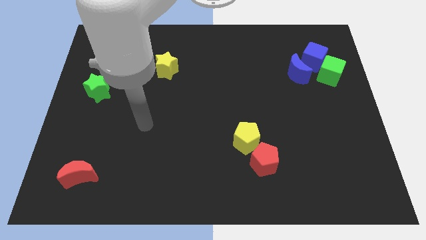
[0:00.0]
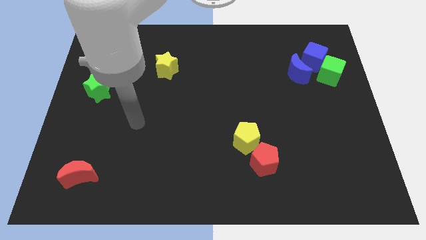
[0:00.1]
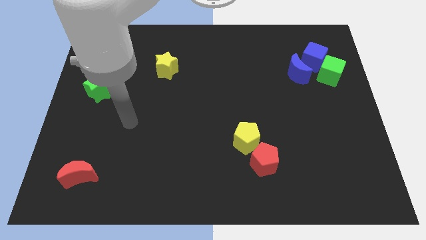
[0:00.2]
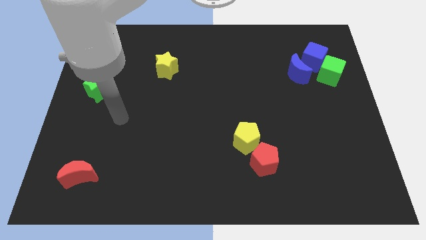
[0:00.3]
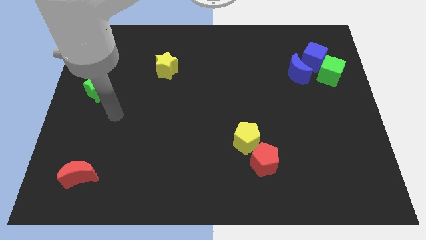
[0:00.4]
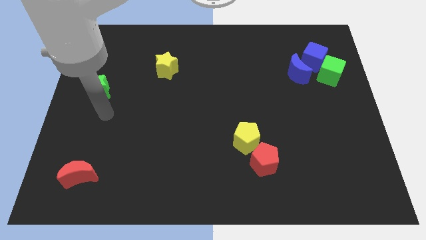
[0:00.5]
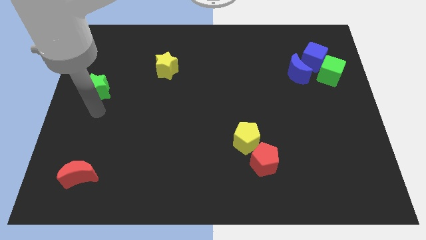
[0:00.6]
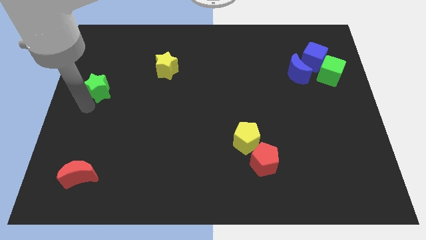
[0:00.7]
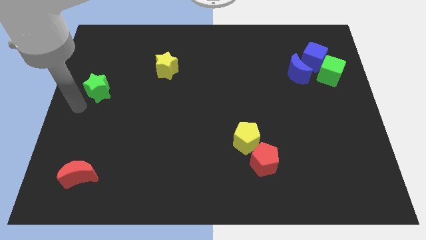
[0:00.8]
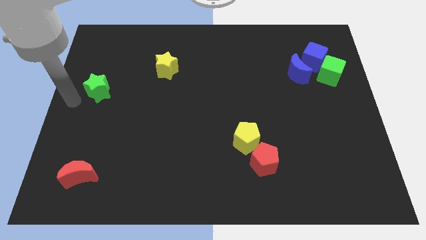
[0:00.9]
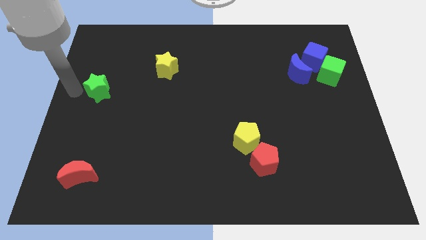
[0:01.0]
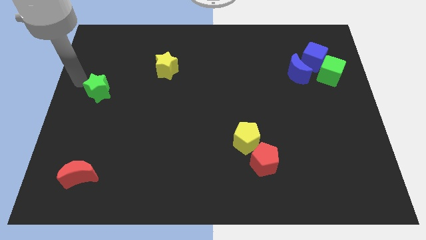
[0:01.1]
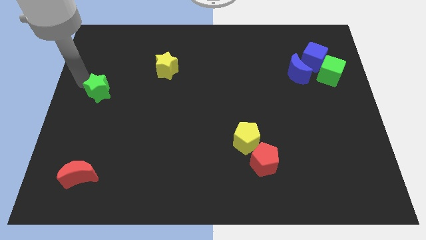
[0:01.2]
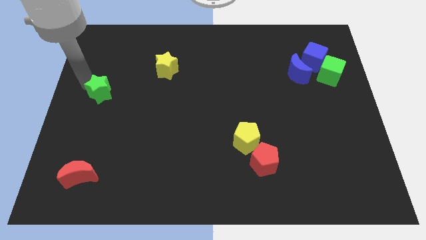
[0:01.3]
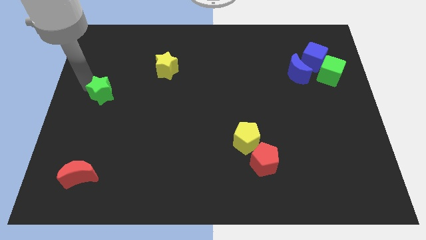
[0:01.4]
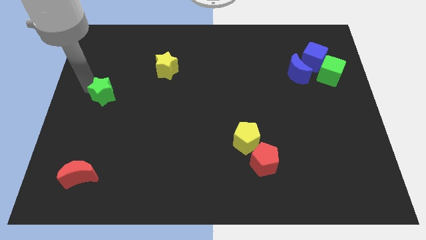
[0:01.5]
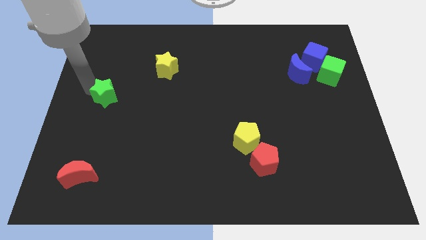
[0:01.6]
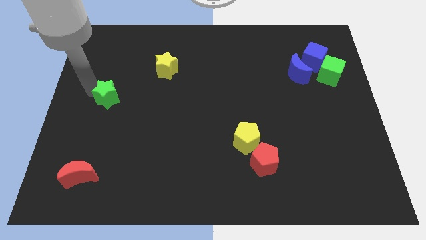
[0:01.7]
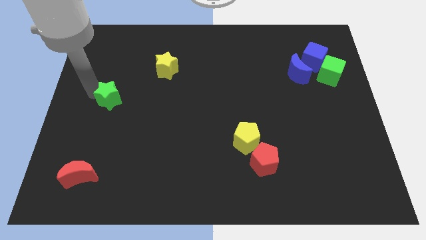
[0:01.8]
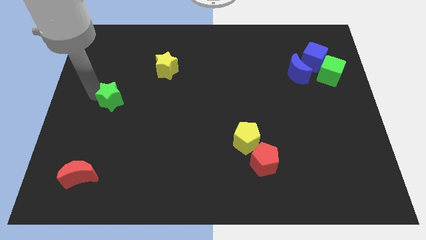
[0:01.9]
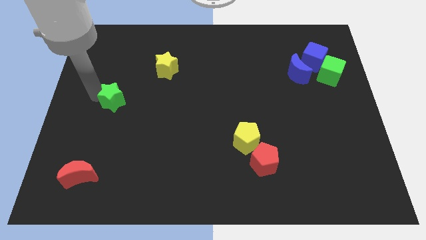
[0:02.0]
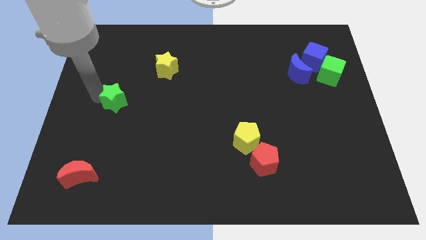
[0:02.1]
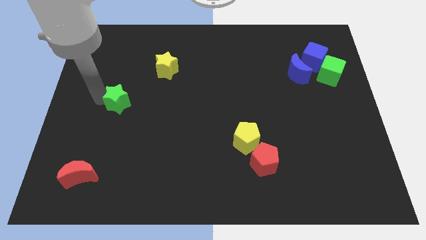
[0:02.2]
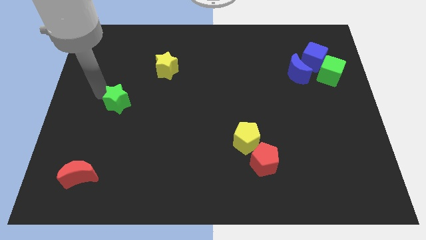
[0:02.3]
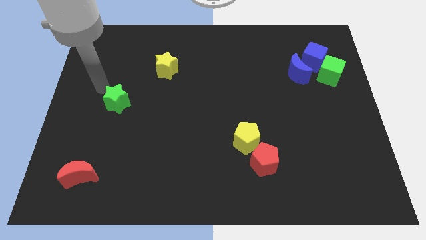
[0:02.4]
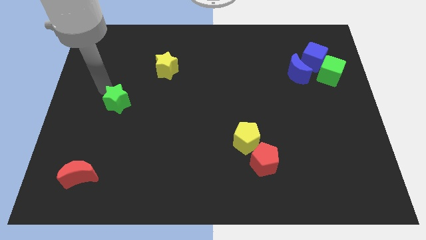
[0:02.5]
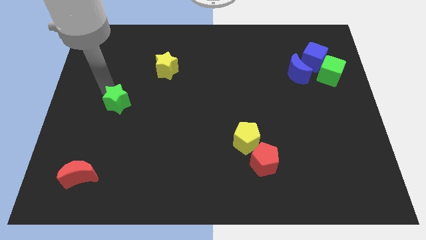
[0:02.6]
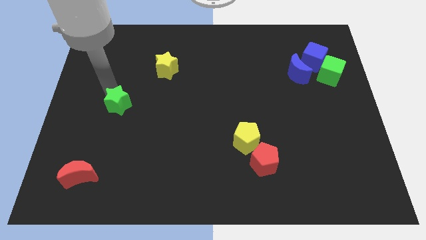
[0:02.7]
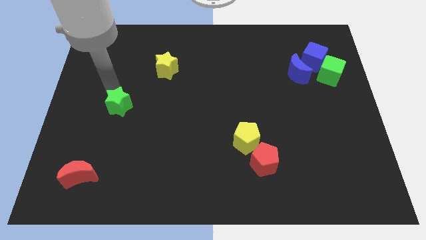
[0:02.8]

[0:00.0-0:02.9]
slide the green star a little down and to the right diagonally

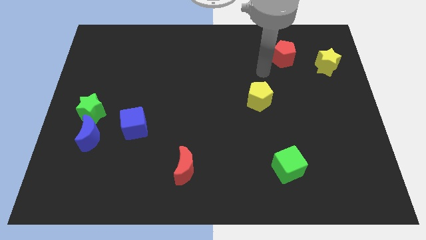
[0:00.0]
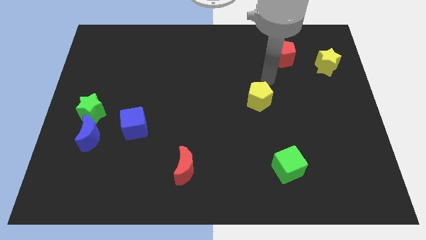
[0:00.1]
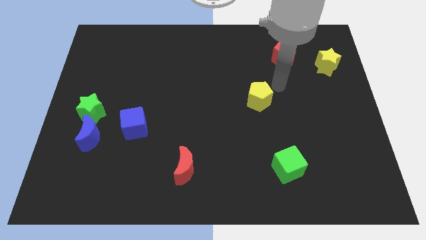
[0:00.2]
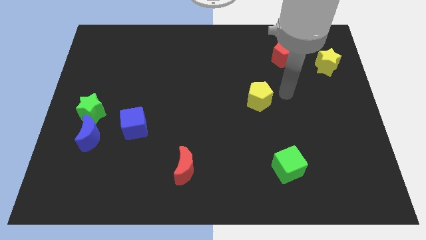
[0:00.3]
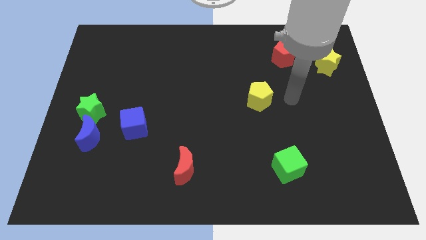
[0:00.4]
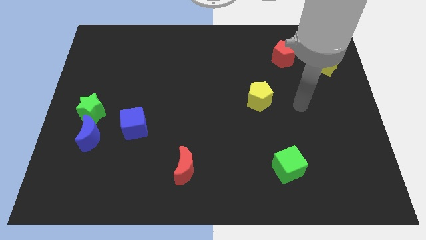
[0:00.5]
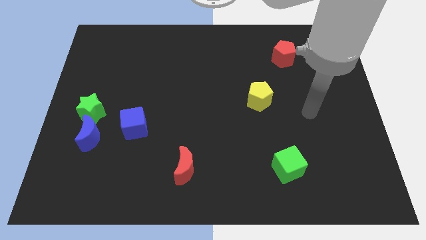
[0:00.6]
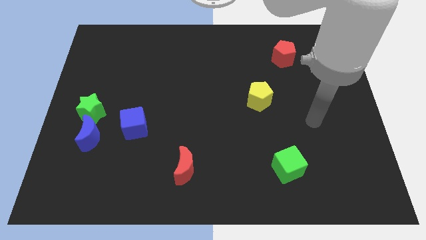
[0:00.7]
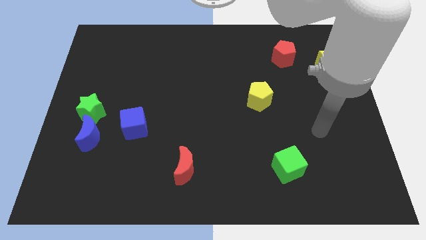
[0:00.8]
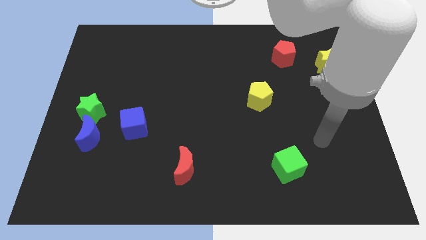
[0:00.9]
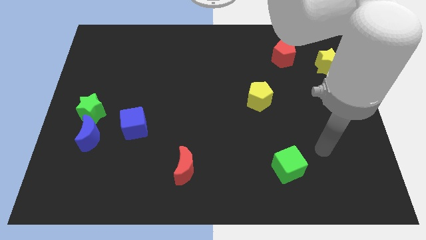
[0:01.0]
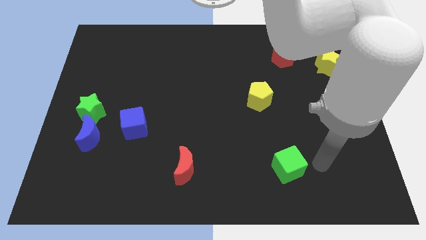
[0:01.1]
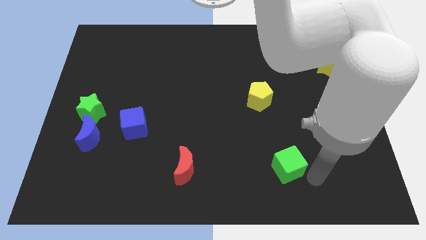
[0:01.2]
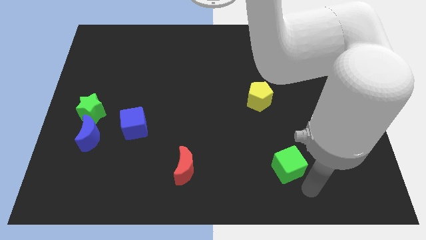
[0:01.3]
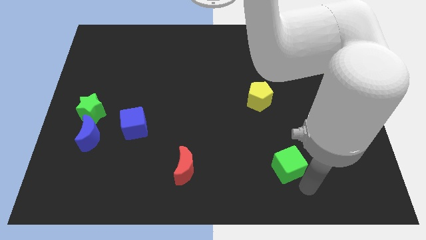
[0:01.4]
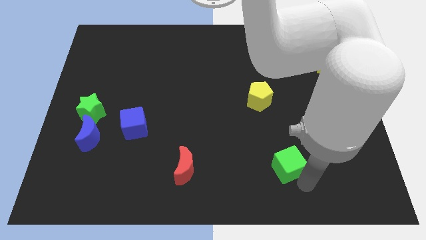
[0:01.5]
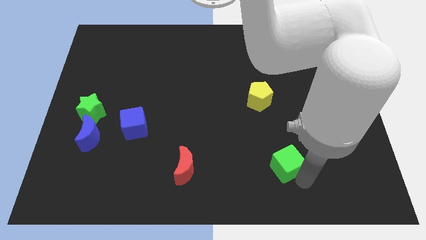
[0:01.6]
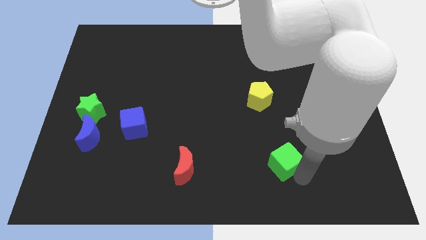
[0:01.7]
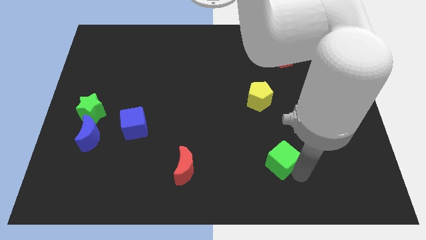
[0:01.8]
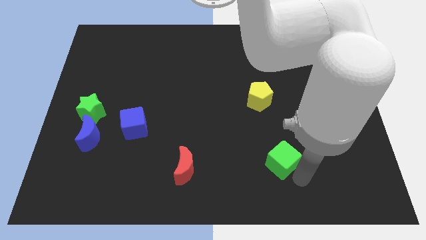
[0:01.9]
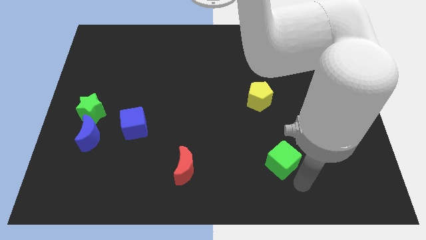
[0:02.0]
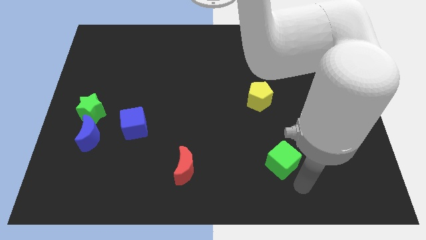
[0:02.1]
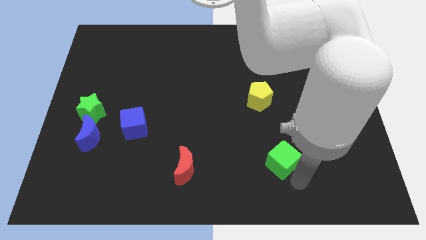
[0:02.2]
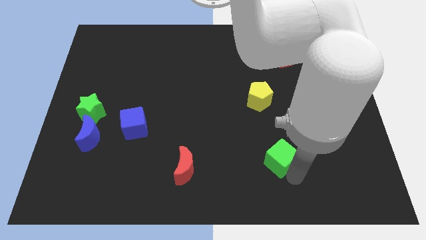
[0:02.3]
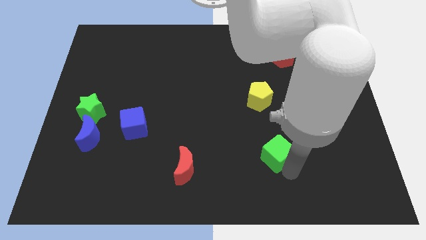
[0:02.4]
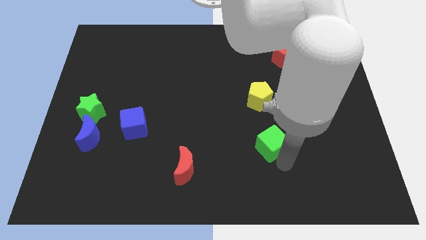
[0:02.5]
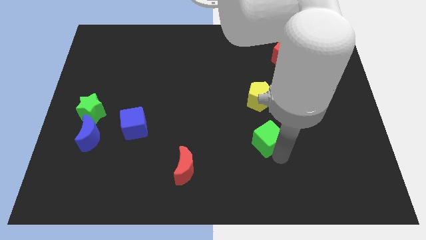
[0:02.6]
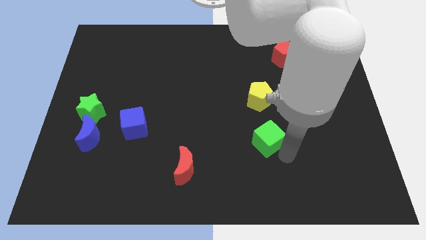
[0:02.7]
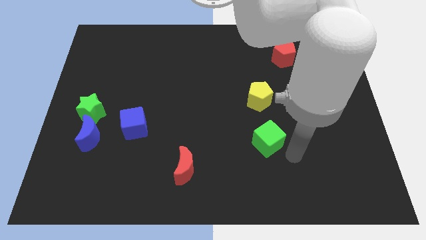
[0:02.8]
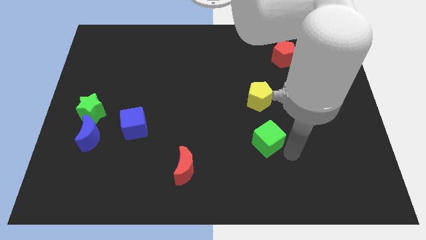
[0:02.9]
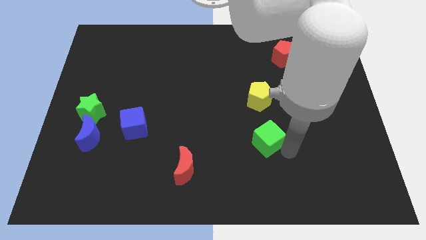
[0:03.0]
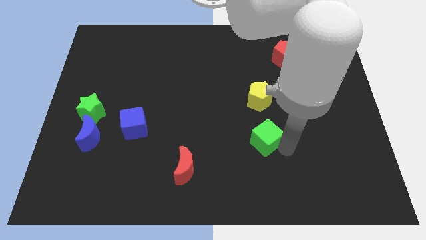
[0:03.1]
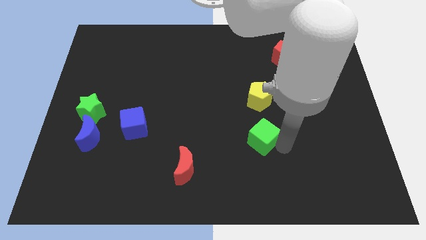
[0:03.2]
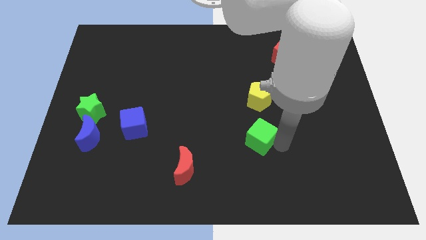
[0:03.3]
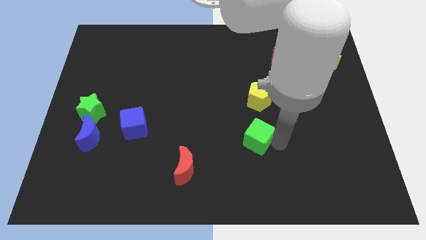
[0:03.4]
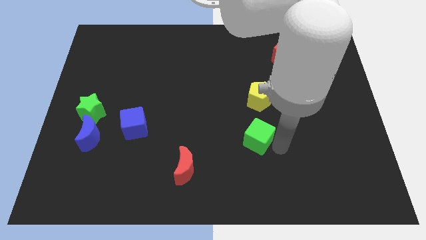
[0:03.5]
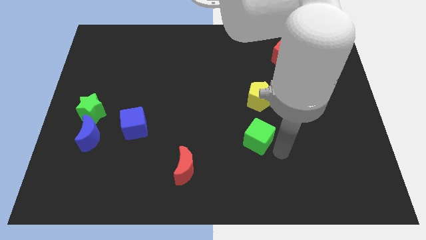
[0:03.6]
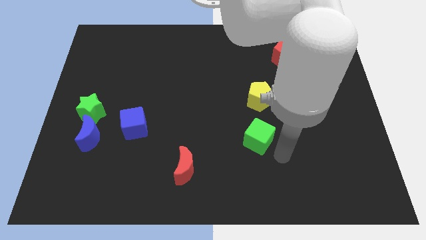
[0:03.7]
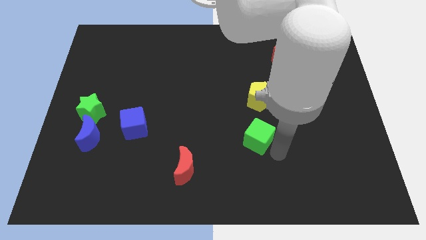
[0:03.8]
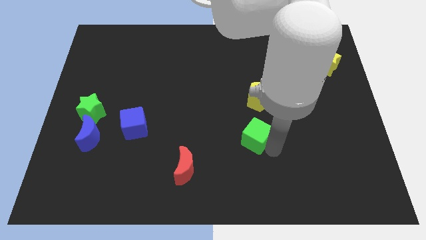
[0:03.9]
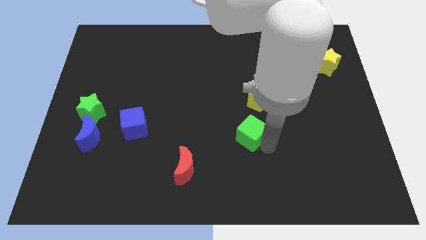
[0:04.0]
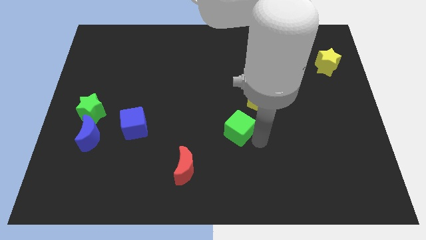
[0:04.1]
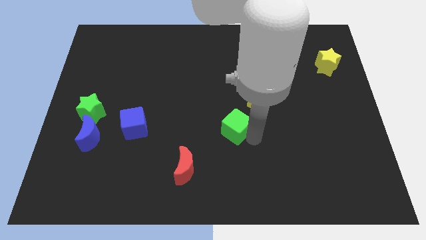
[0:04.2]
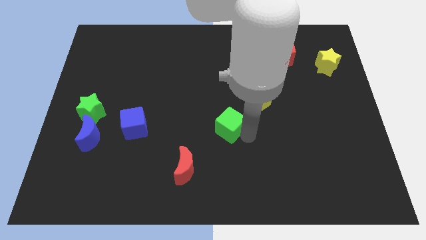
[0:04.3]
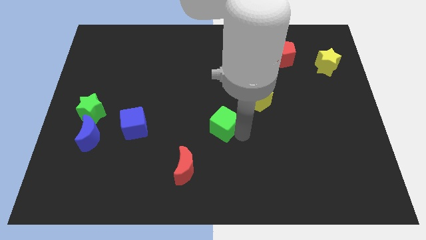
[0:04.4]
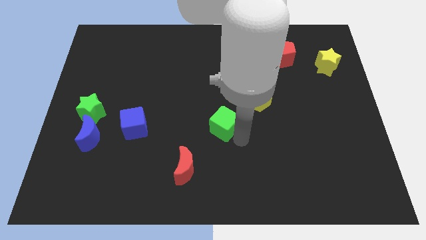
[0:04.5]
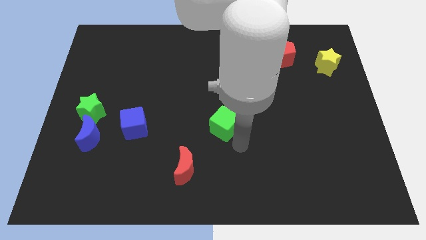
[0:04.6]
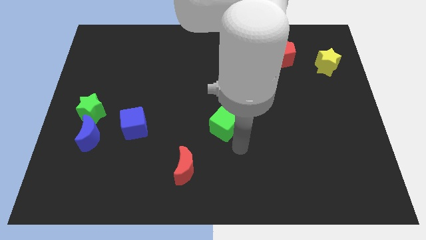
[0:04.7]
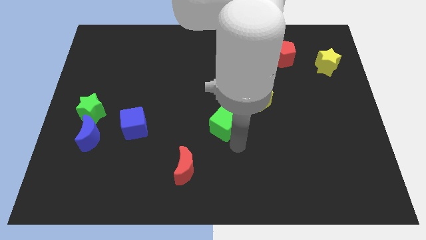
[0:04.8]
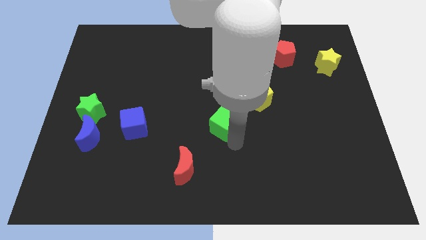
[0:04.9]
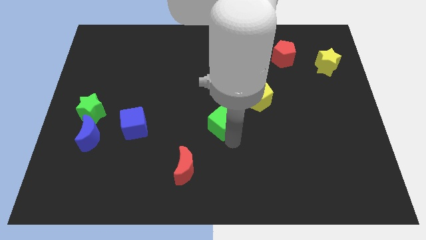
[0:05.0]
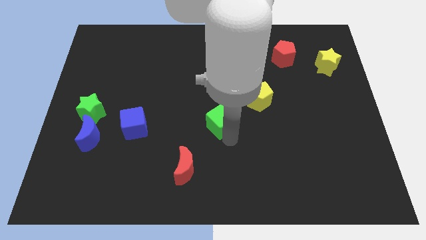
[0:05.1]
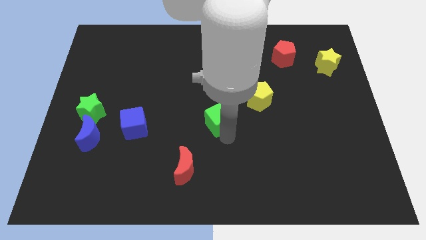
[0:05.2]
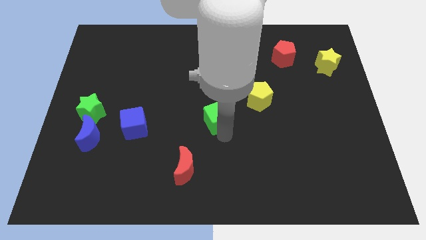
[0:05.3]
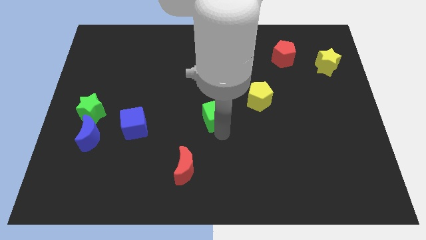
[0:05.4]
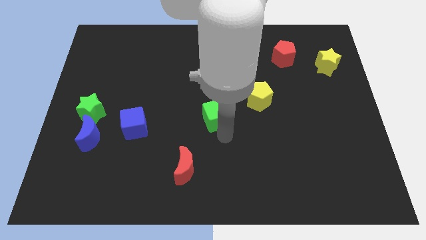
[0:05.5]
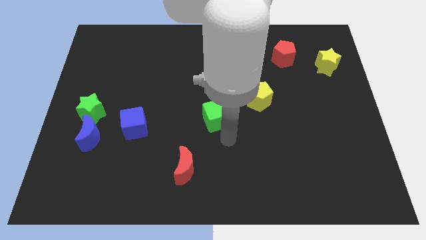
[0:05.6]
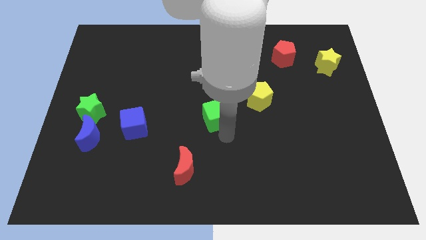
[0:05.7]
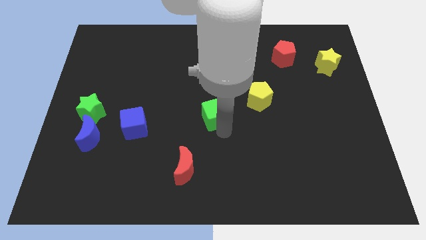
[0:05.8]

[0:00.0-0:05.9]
move the green cube upwards and left diagonally
